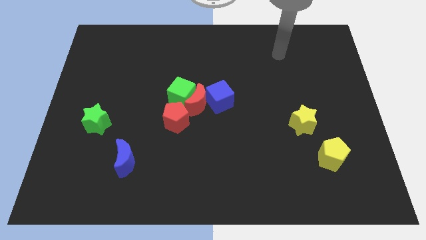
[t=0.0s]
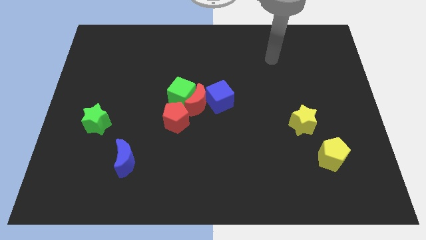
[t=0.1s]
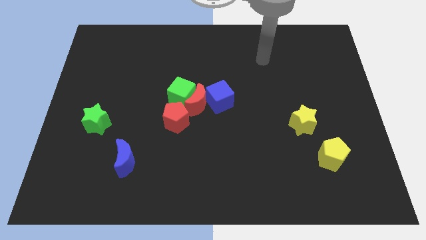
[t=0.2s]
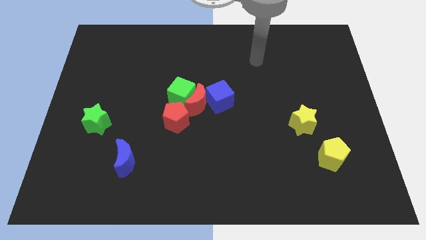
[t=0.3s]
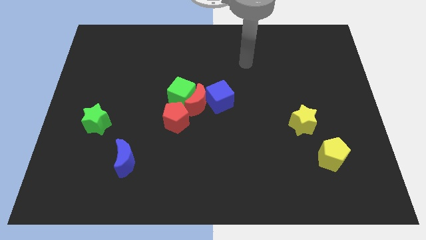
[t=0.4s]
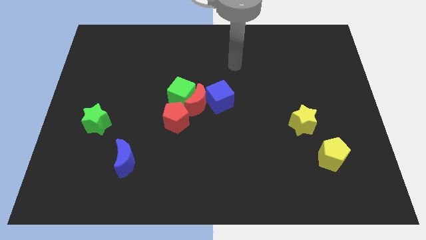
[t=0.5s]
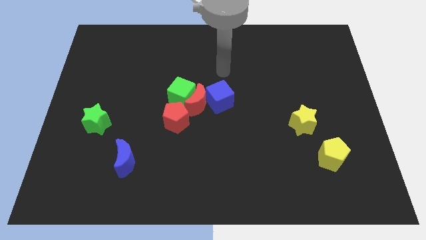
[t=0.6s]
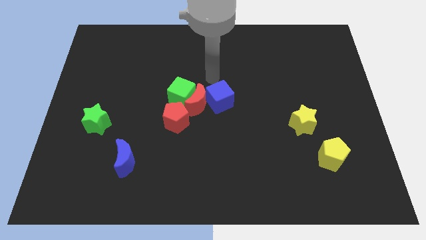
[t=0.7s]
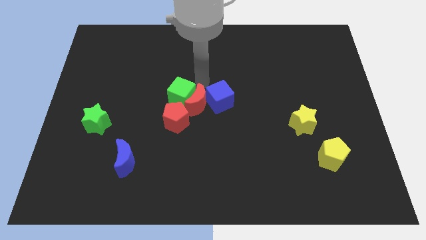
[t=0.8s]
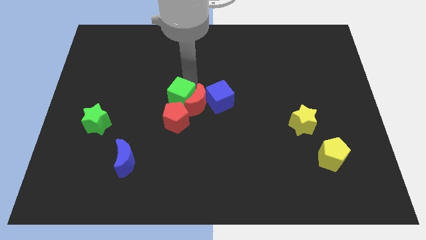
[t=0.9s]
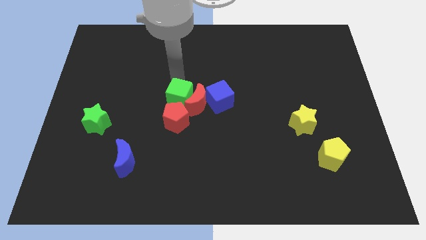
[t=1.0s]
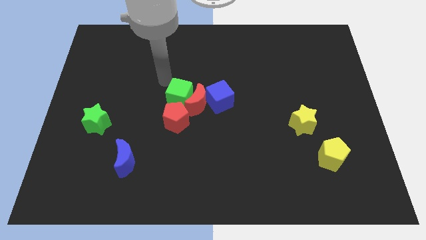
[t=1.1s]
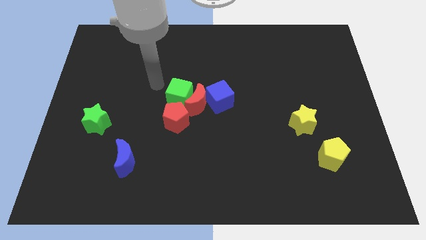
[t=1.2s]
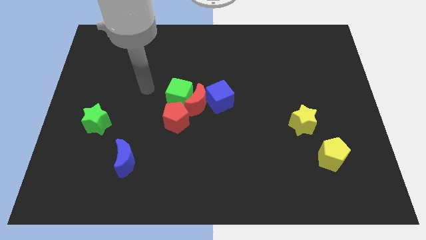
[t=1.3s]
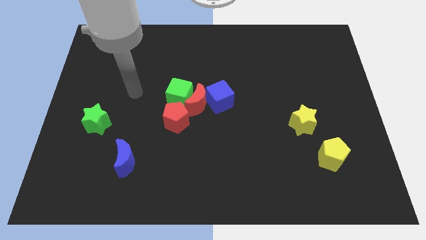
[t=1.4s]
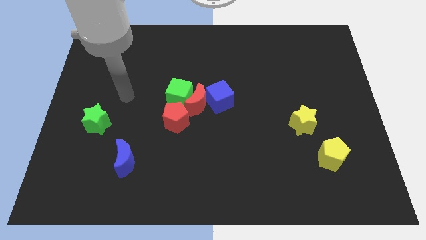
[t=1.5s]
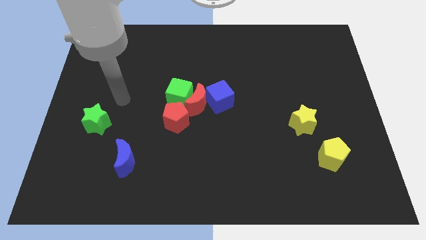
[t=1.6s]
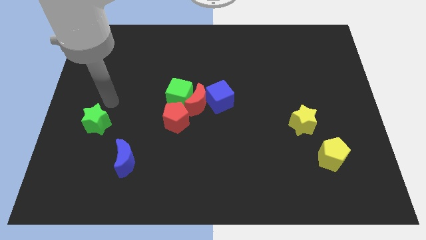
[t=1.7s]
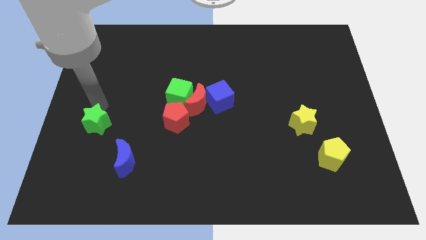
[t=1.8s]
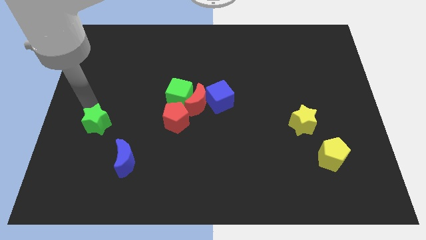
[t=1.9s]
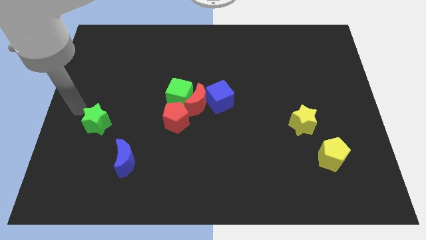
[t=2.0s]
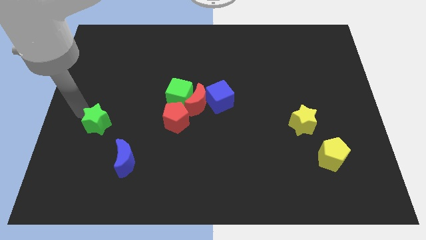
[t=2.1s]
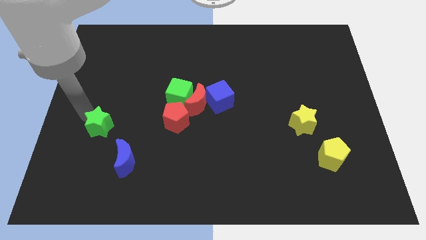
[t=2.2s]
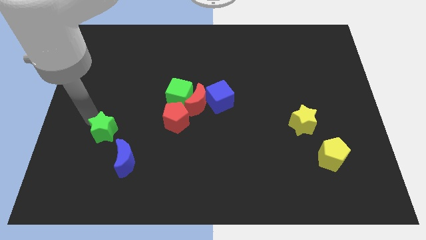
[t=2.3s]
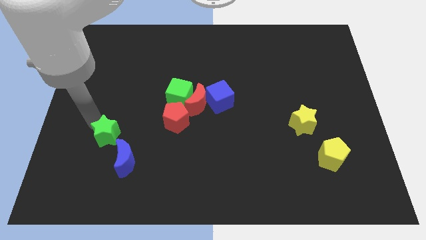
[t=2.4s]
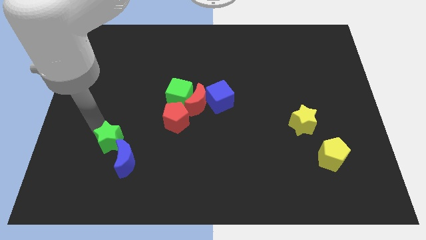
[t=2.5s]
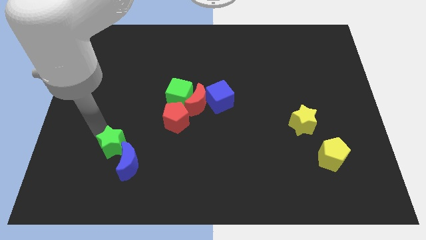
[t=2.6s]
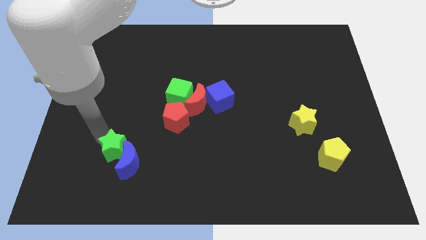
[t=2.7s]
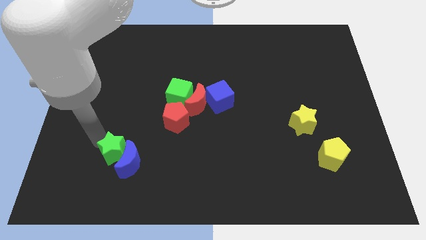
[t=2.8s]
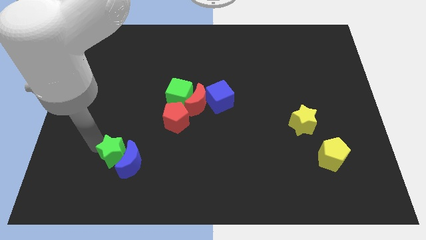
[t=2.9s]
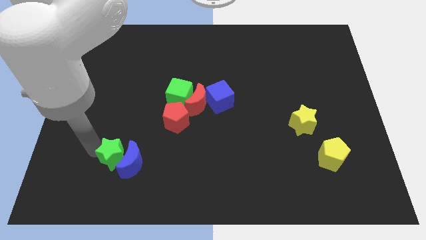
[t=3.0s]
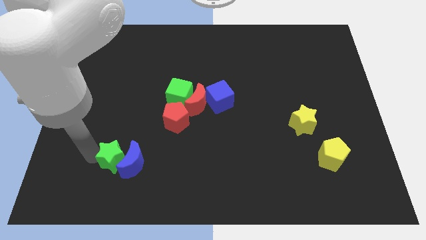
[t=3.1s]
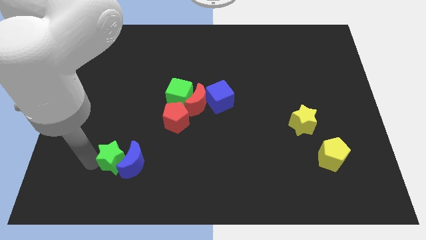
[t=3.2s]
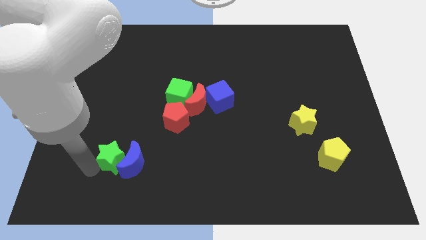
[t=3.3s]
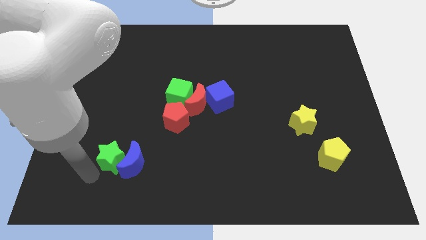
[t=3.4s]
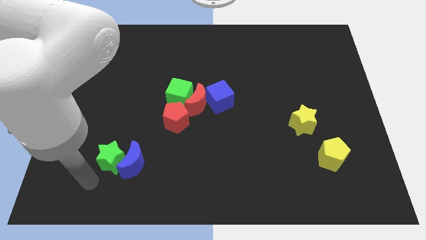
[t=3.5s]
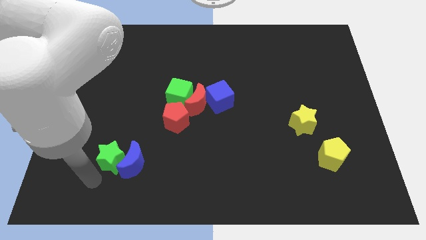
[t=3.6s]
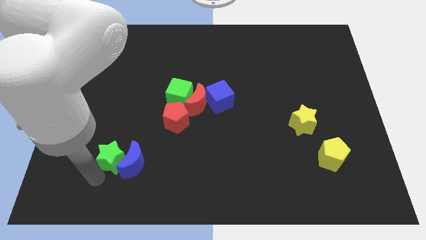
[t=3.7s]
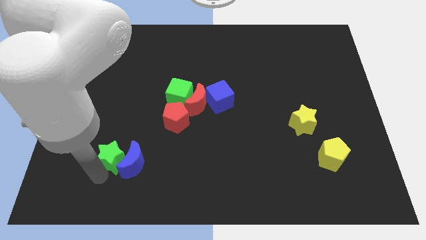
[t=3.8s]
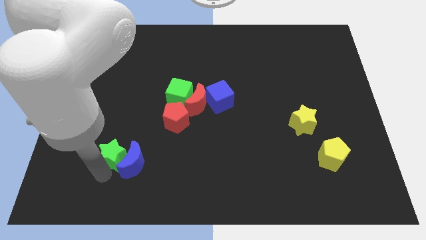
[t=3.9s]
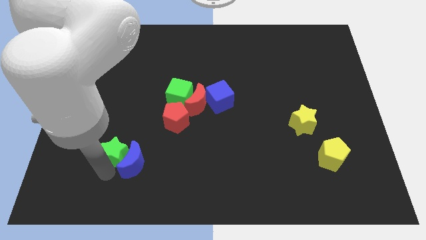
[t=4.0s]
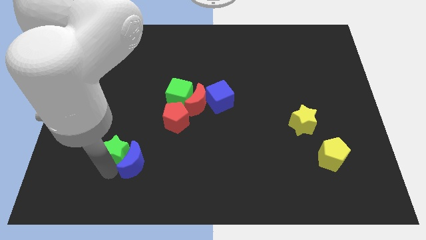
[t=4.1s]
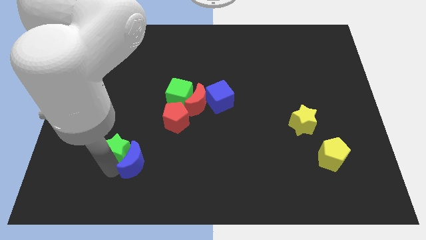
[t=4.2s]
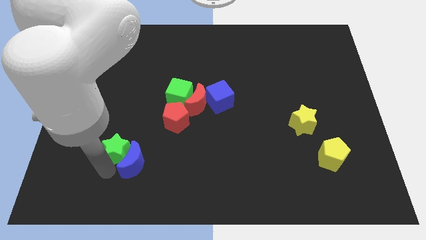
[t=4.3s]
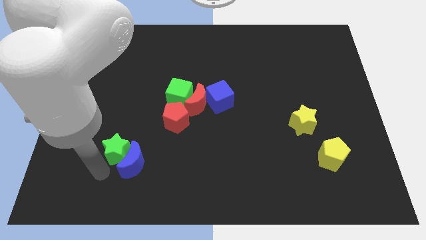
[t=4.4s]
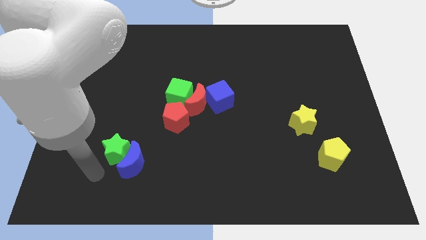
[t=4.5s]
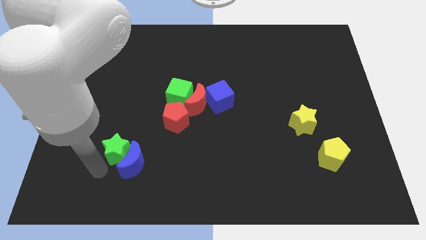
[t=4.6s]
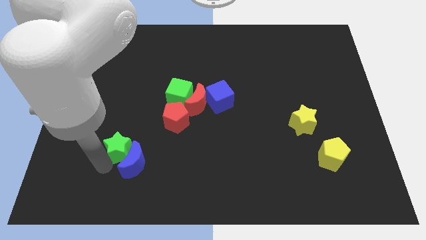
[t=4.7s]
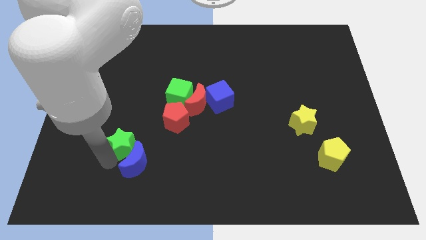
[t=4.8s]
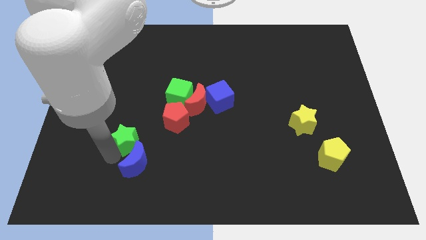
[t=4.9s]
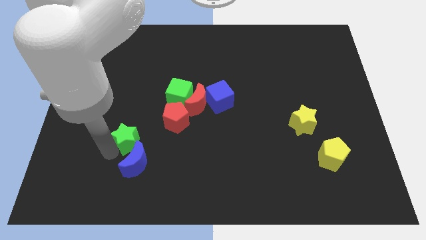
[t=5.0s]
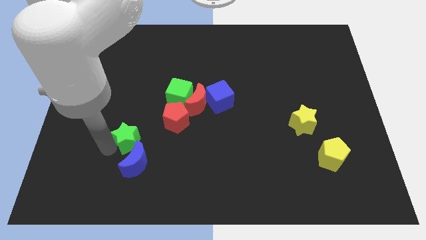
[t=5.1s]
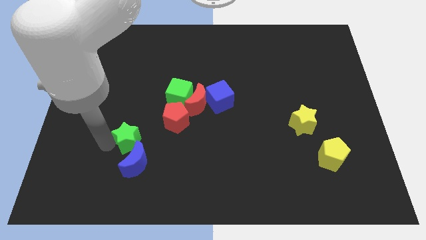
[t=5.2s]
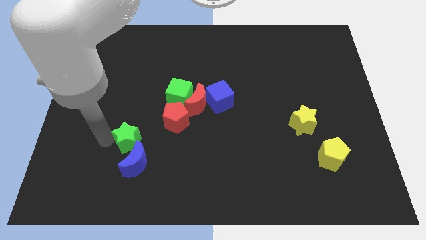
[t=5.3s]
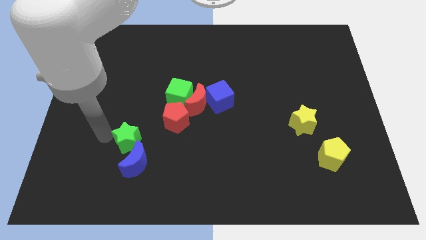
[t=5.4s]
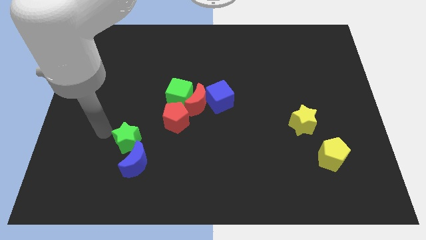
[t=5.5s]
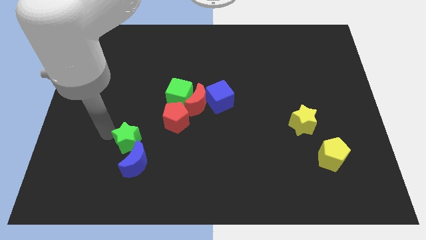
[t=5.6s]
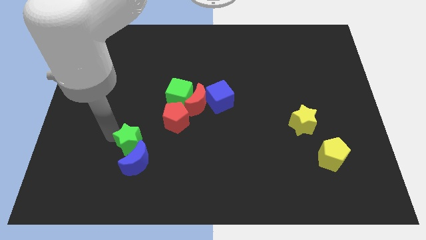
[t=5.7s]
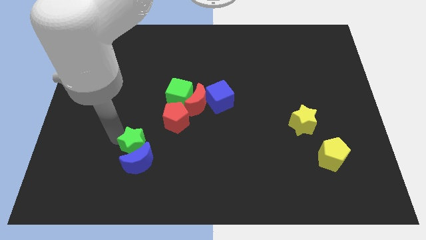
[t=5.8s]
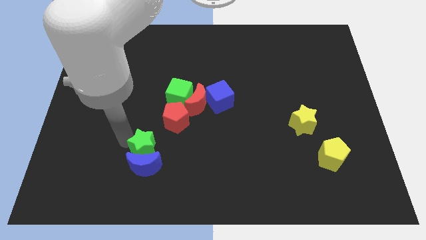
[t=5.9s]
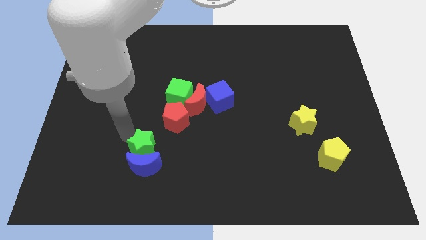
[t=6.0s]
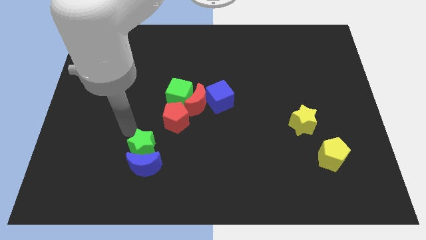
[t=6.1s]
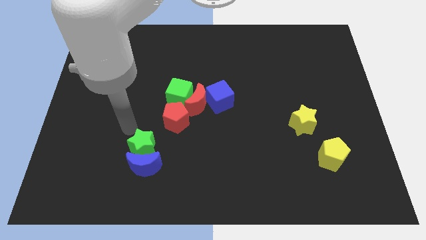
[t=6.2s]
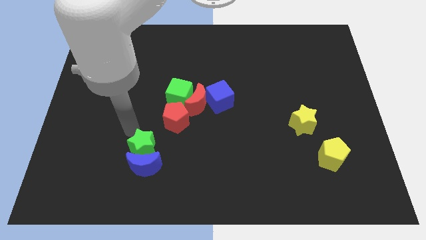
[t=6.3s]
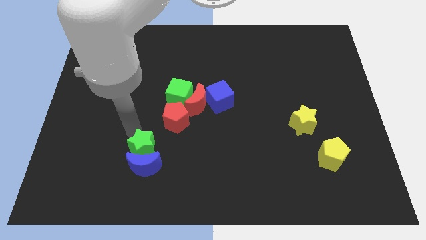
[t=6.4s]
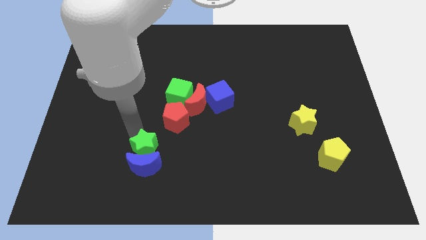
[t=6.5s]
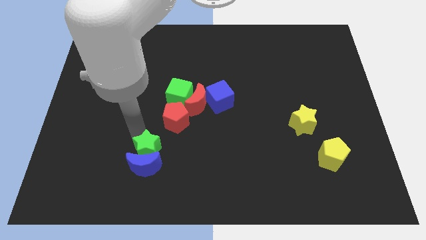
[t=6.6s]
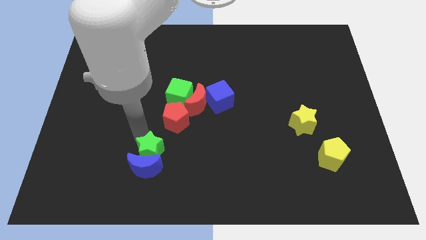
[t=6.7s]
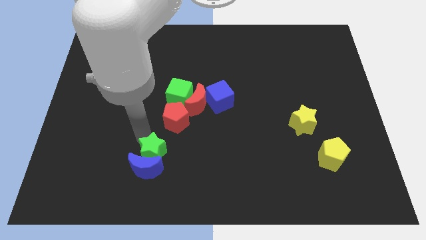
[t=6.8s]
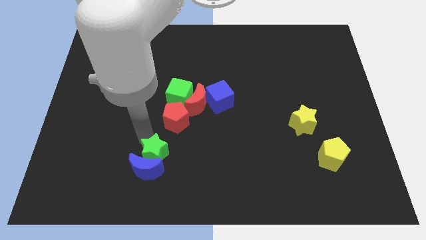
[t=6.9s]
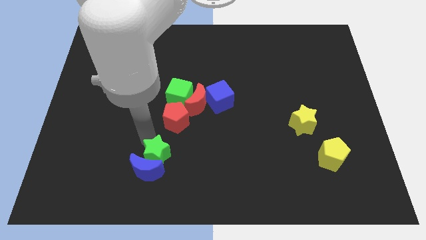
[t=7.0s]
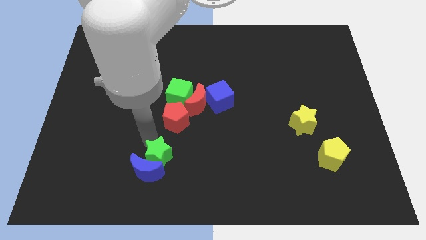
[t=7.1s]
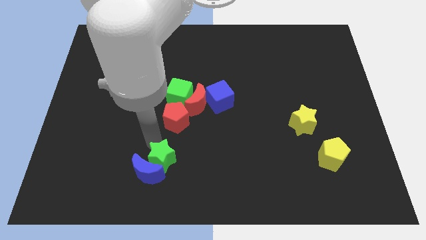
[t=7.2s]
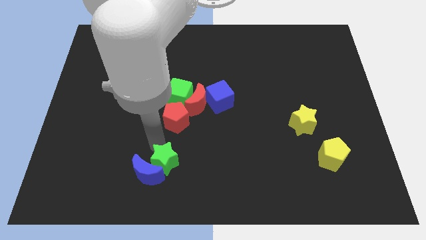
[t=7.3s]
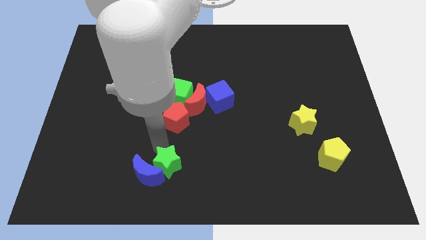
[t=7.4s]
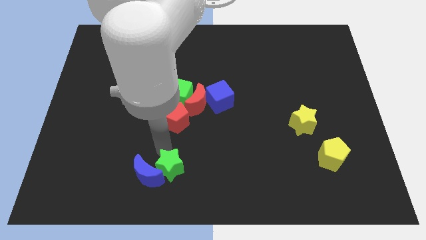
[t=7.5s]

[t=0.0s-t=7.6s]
move the green star diagonally down and to the right of the blue moon
